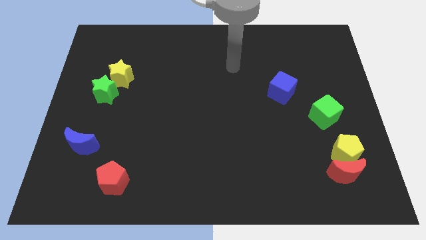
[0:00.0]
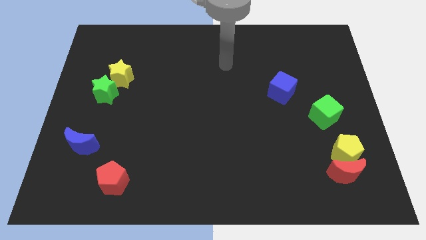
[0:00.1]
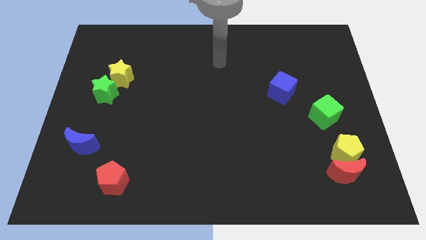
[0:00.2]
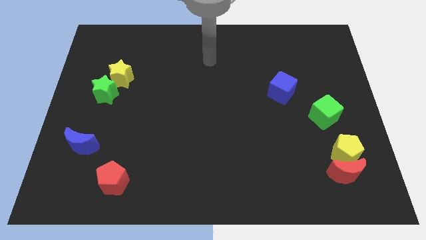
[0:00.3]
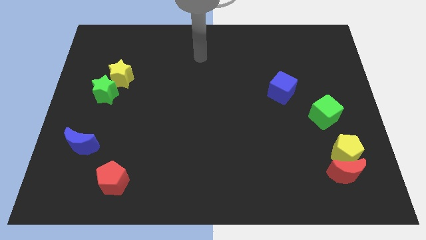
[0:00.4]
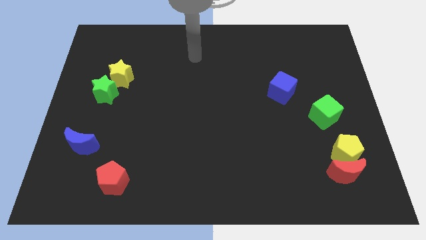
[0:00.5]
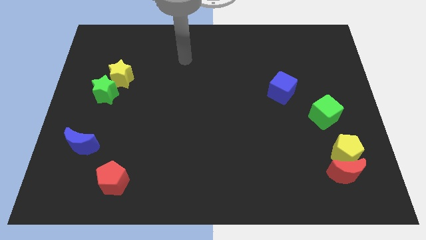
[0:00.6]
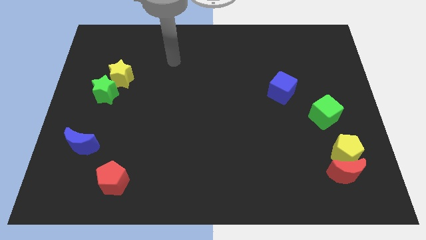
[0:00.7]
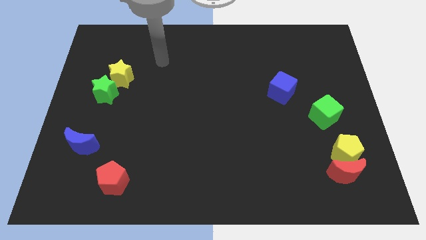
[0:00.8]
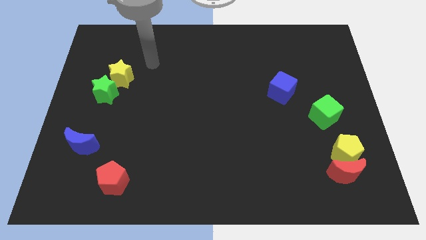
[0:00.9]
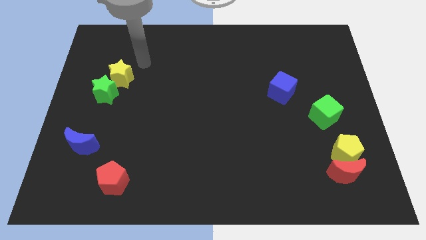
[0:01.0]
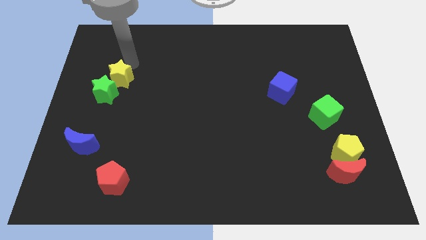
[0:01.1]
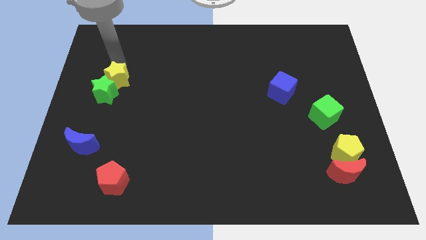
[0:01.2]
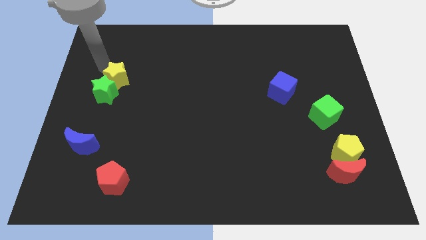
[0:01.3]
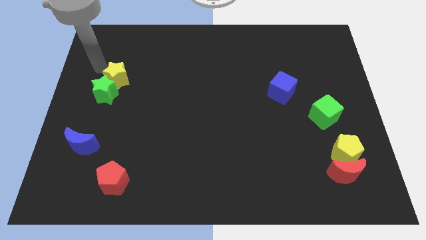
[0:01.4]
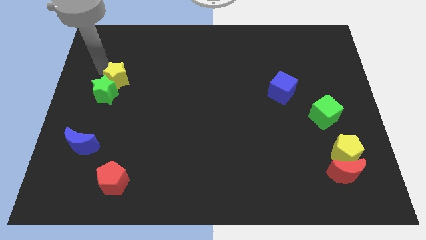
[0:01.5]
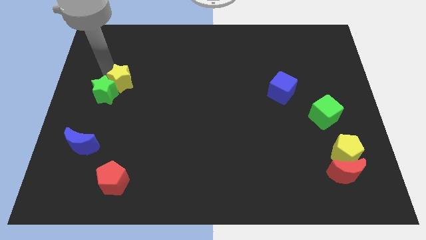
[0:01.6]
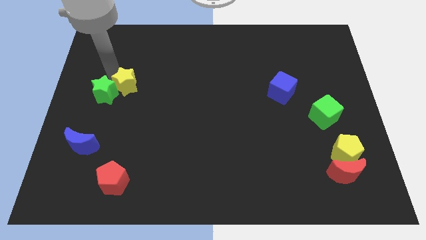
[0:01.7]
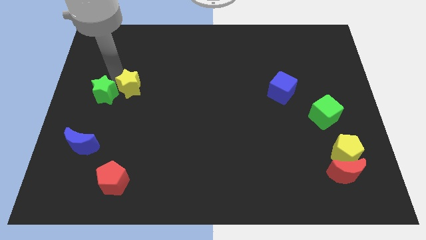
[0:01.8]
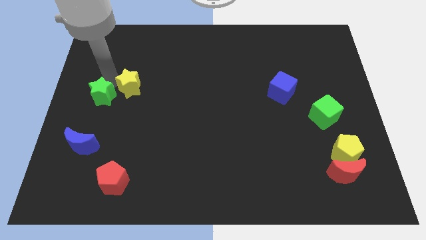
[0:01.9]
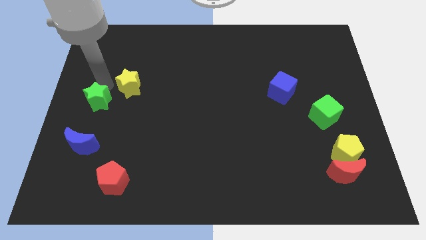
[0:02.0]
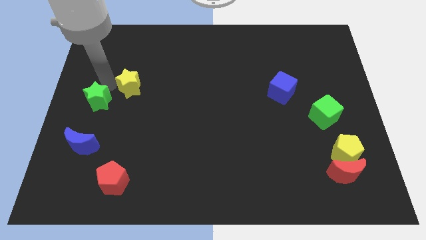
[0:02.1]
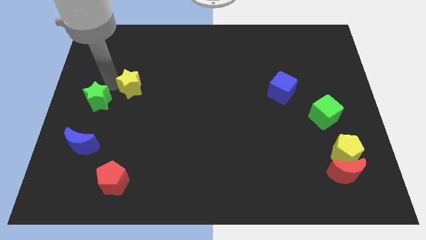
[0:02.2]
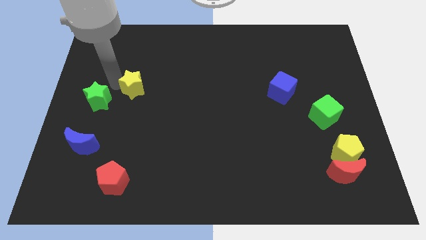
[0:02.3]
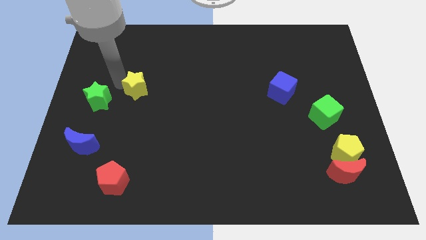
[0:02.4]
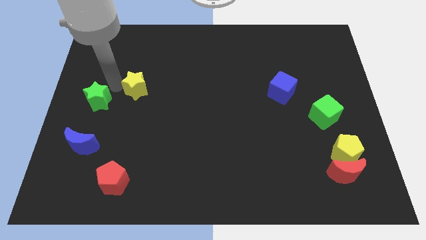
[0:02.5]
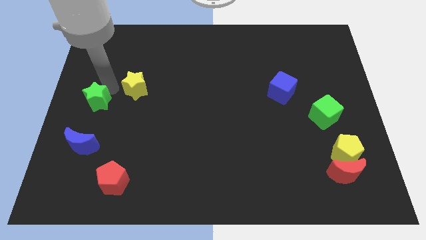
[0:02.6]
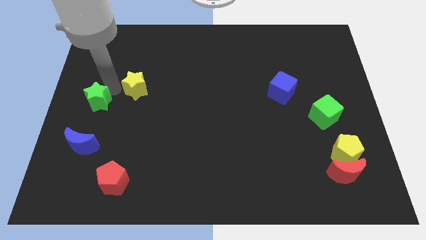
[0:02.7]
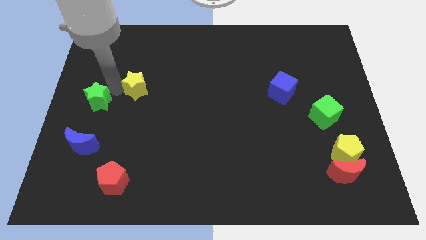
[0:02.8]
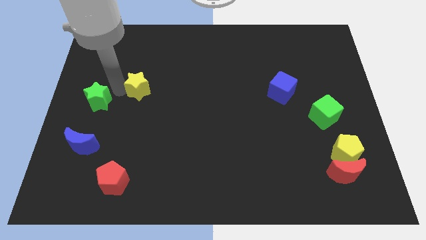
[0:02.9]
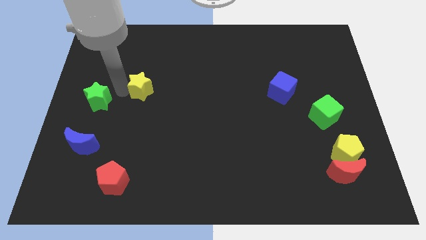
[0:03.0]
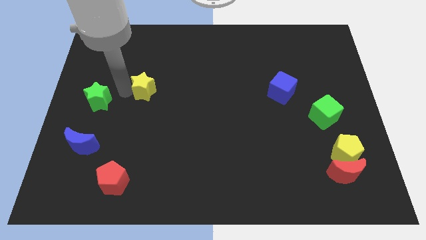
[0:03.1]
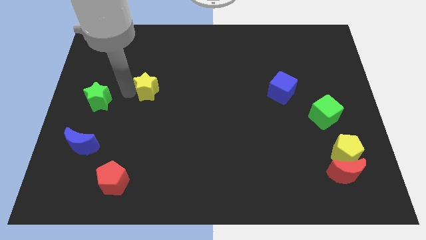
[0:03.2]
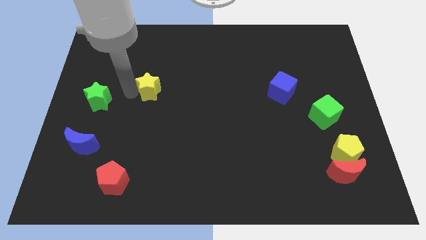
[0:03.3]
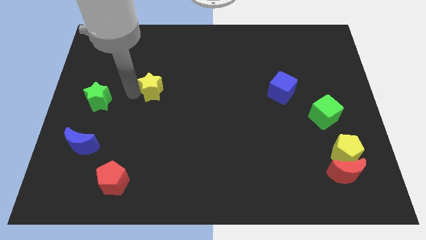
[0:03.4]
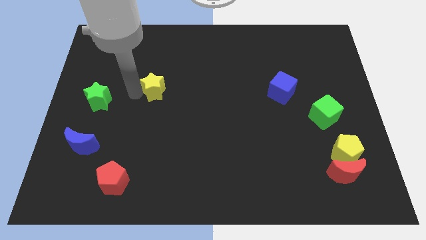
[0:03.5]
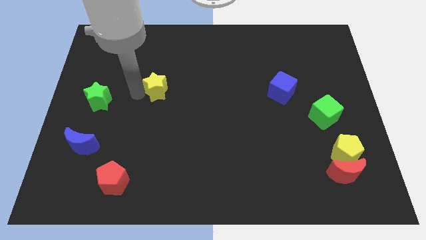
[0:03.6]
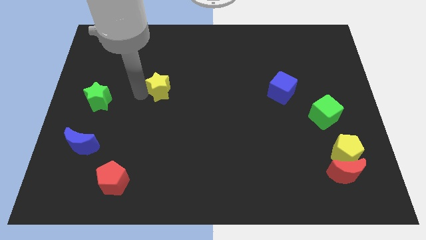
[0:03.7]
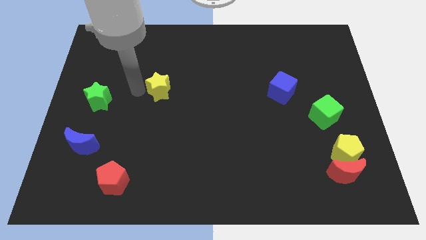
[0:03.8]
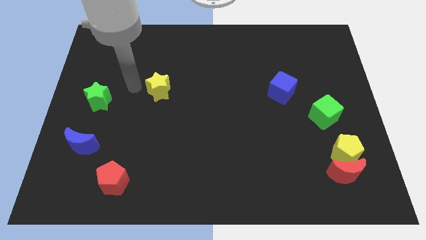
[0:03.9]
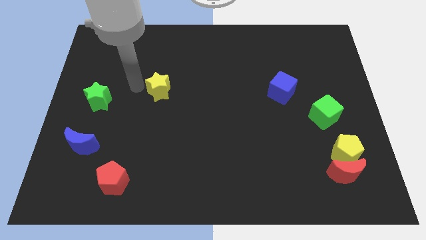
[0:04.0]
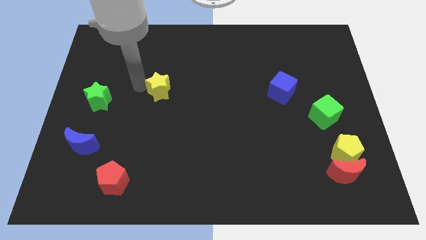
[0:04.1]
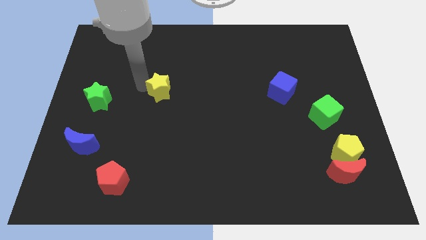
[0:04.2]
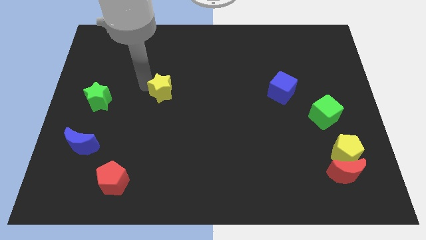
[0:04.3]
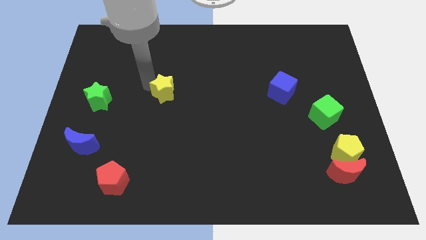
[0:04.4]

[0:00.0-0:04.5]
slide the yellow star to the middle of the board

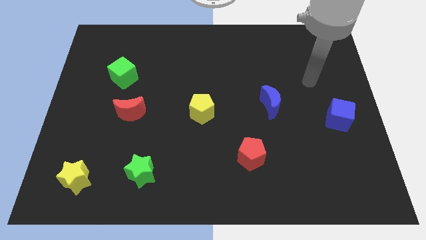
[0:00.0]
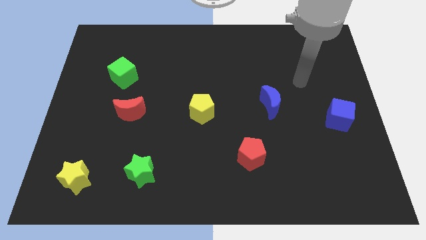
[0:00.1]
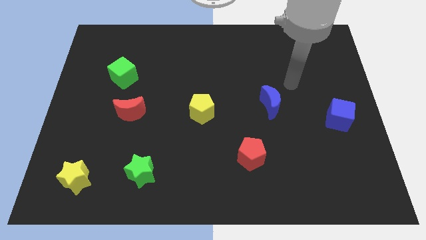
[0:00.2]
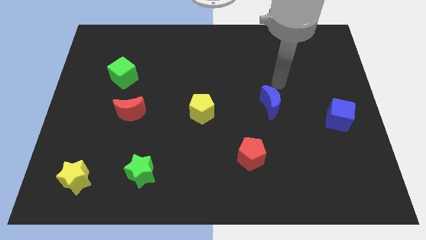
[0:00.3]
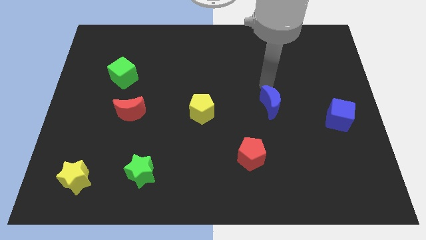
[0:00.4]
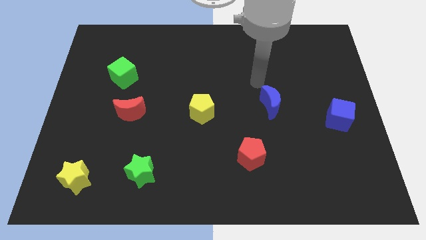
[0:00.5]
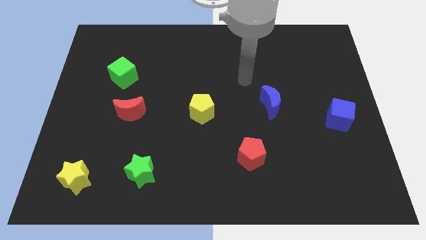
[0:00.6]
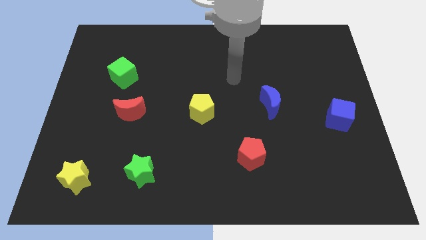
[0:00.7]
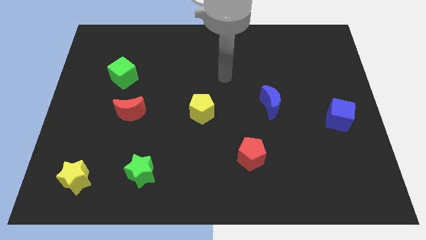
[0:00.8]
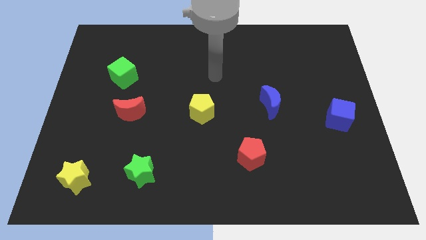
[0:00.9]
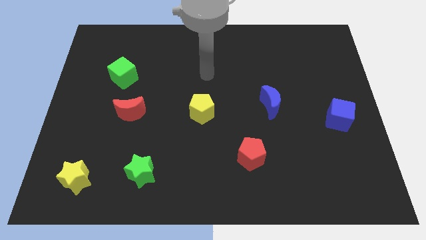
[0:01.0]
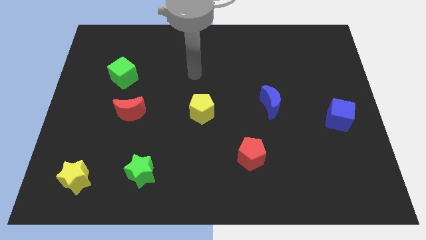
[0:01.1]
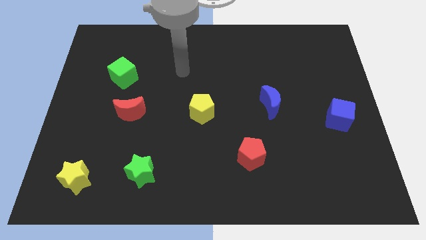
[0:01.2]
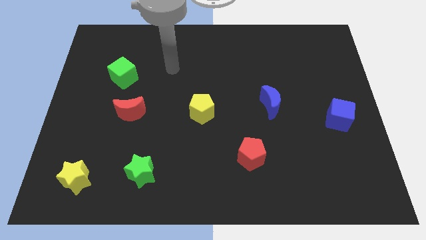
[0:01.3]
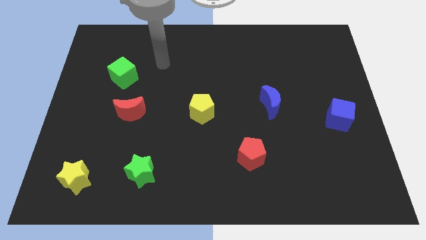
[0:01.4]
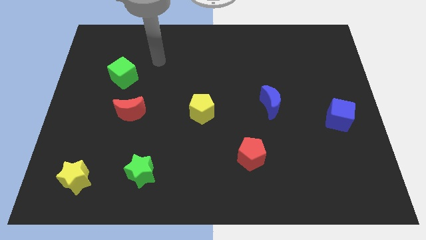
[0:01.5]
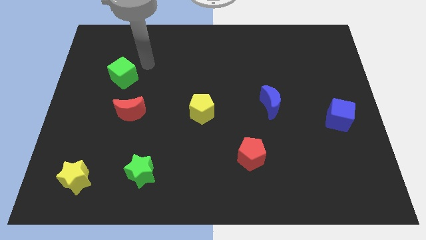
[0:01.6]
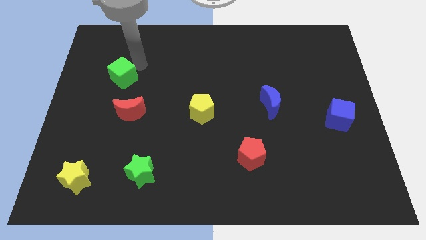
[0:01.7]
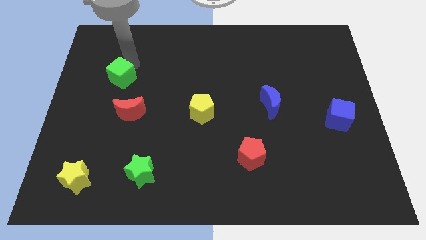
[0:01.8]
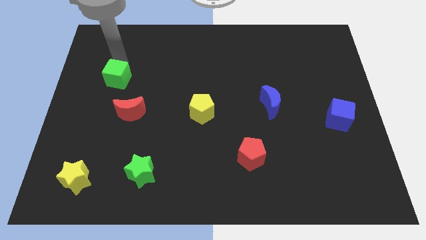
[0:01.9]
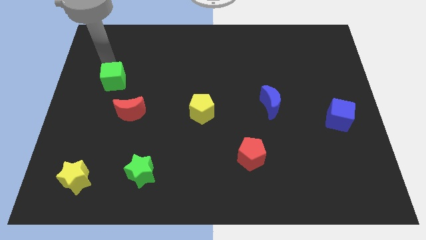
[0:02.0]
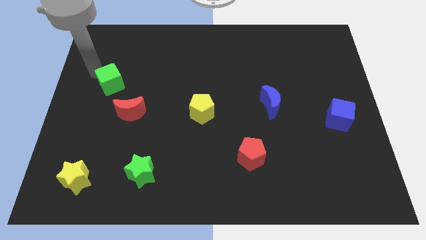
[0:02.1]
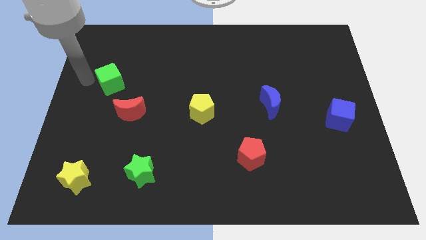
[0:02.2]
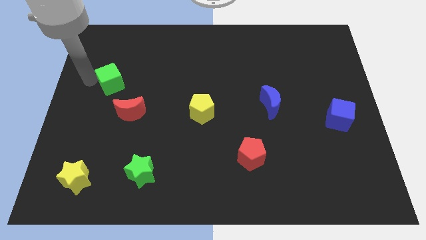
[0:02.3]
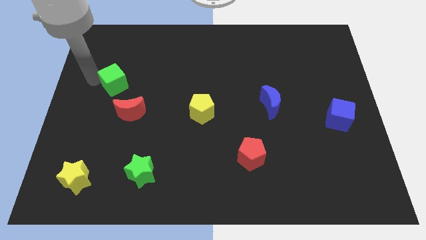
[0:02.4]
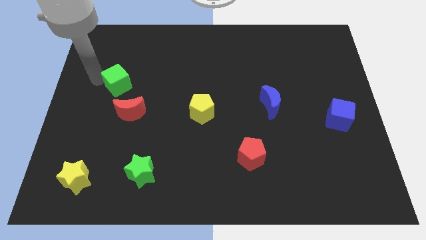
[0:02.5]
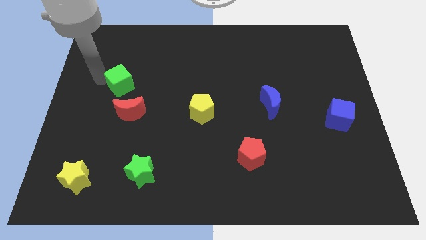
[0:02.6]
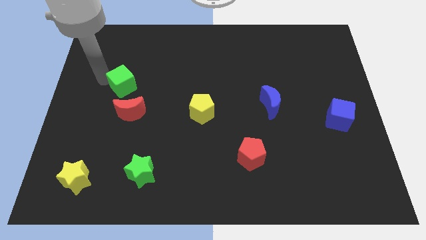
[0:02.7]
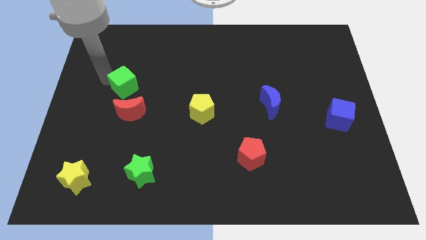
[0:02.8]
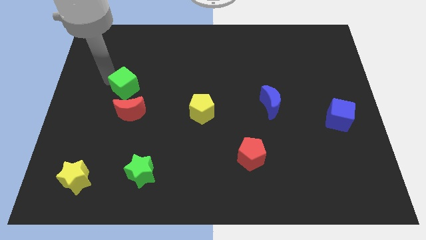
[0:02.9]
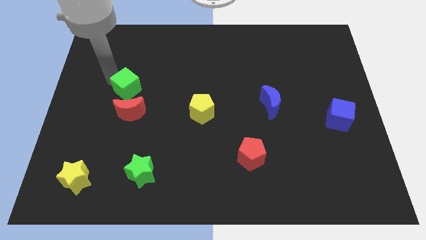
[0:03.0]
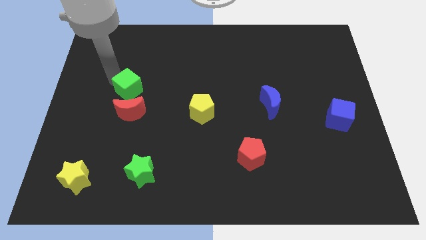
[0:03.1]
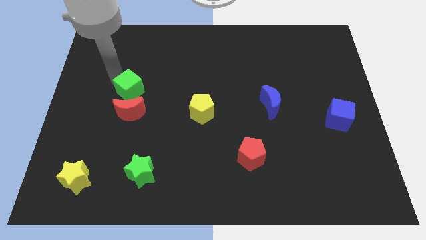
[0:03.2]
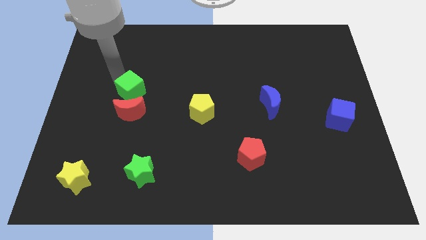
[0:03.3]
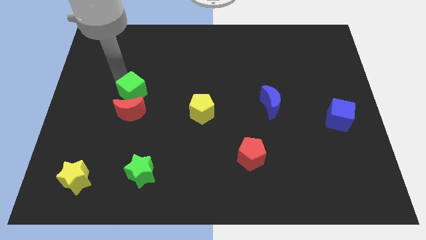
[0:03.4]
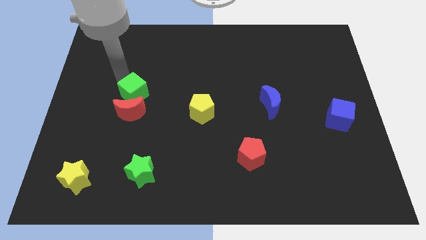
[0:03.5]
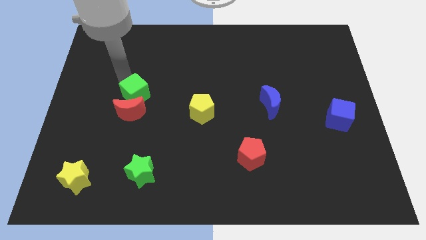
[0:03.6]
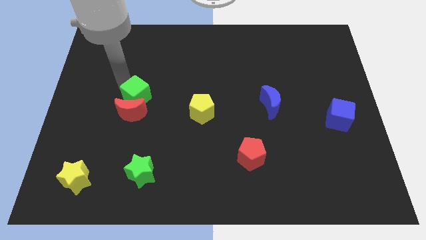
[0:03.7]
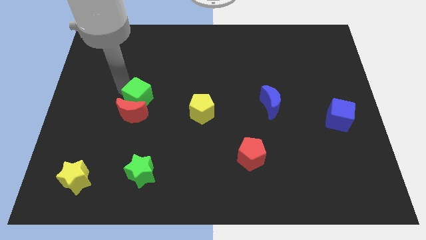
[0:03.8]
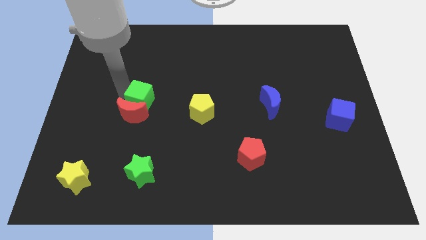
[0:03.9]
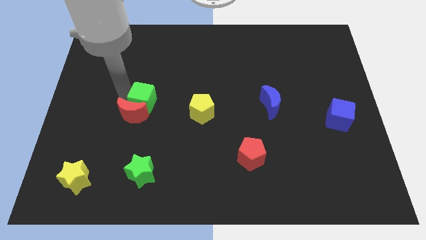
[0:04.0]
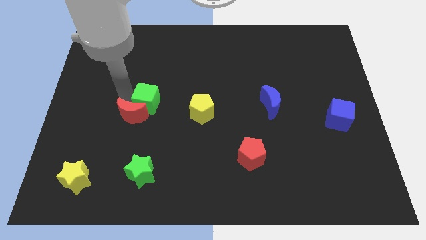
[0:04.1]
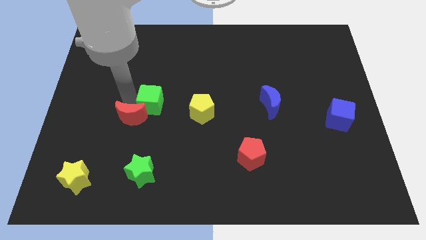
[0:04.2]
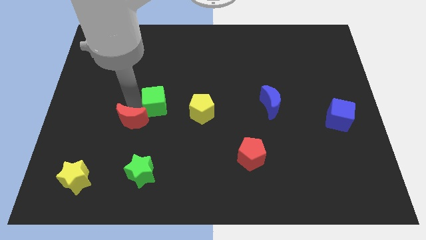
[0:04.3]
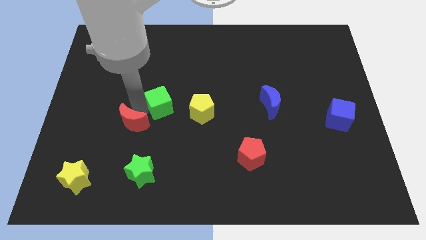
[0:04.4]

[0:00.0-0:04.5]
push the green cube to the middle
